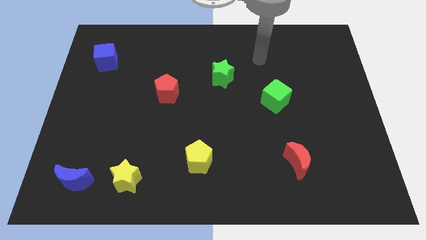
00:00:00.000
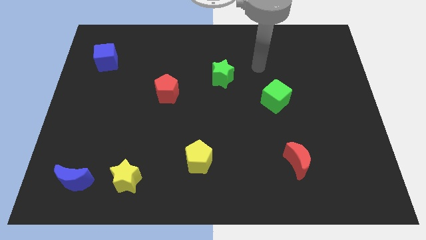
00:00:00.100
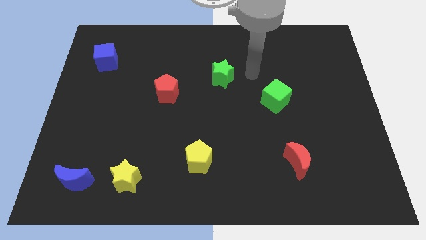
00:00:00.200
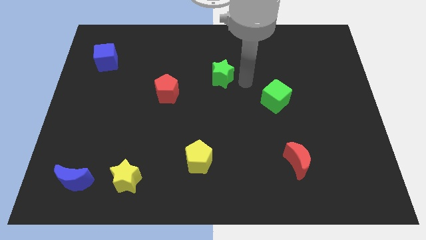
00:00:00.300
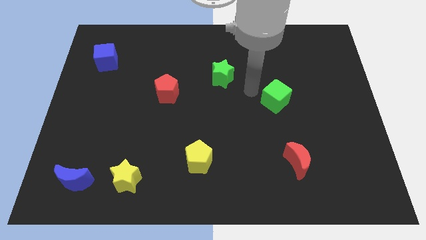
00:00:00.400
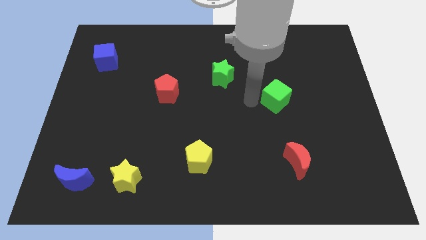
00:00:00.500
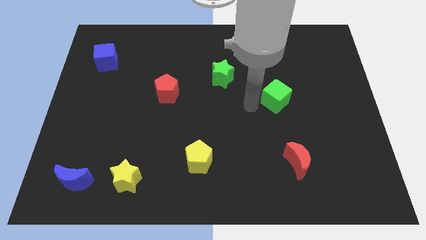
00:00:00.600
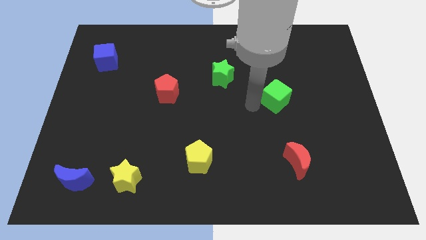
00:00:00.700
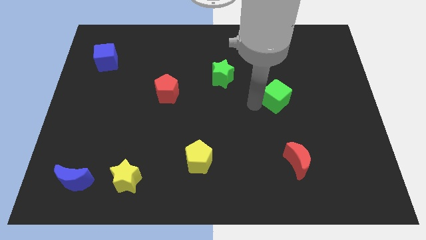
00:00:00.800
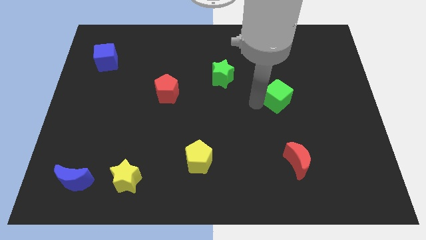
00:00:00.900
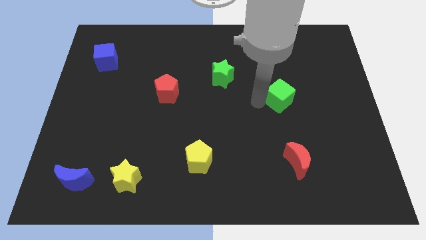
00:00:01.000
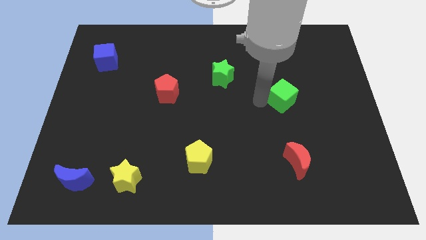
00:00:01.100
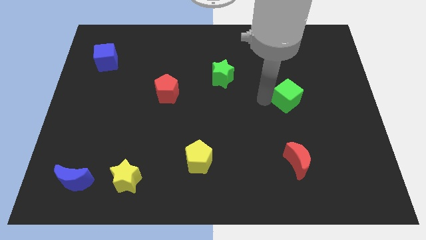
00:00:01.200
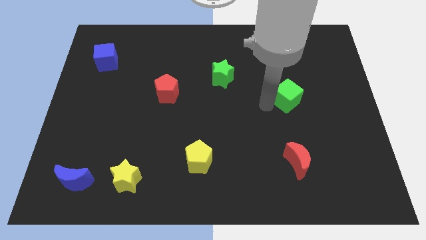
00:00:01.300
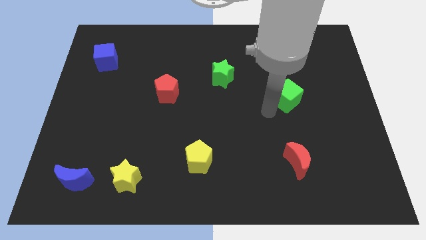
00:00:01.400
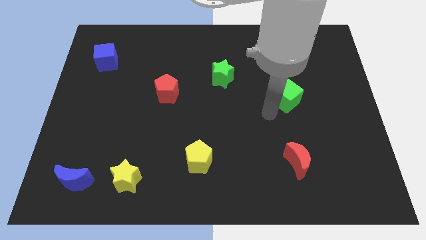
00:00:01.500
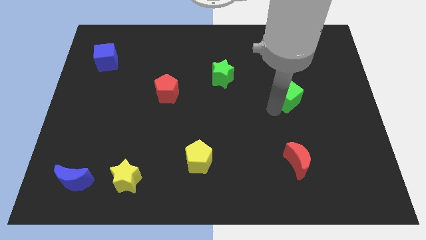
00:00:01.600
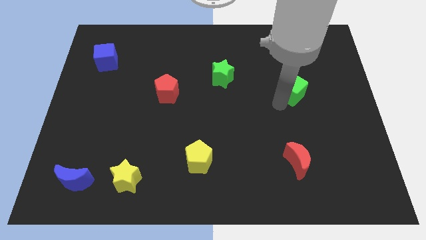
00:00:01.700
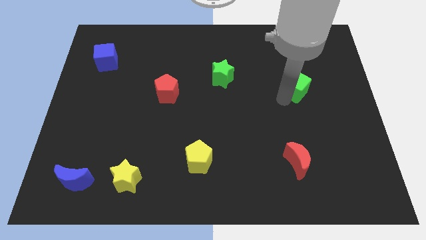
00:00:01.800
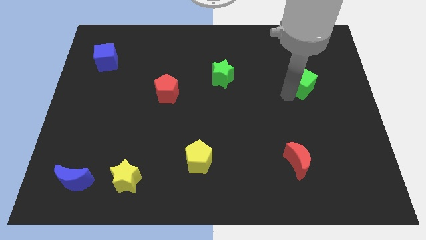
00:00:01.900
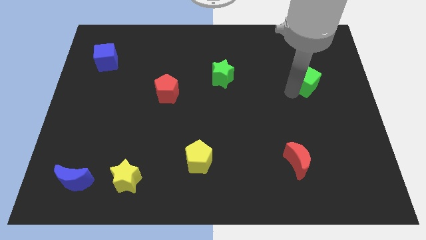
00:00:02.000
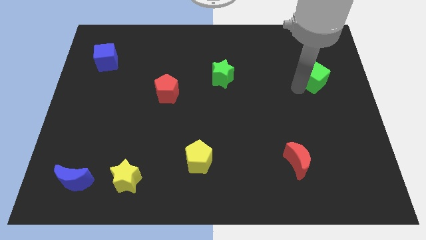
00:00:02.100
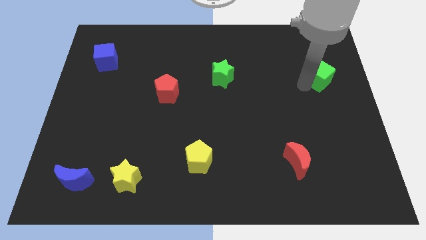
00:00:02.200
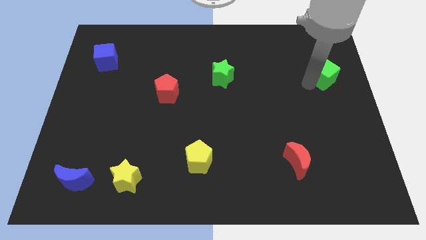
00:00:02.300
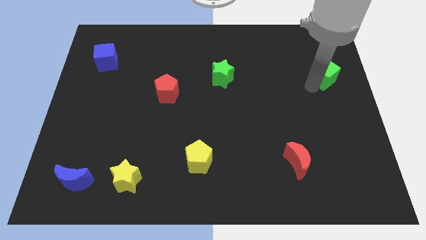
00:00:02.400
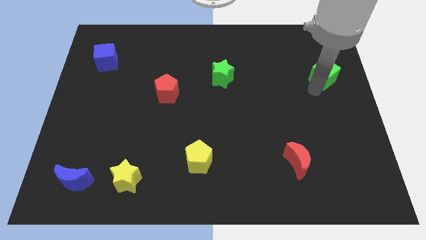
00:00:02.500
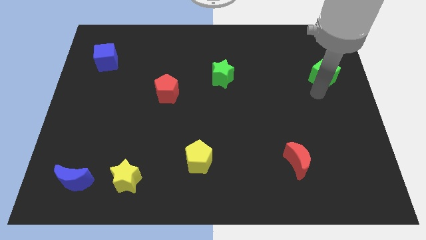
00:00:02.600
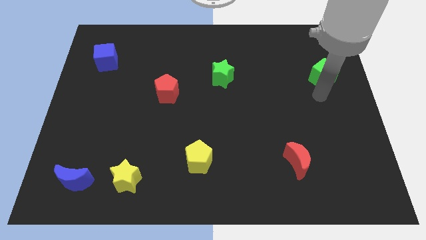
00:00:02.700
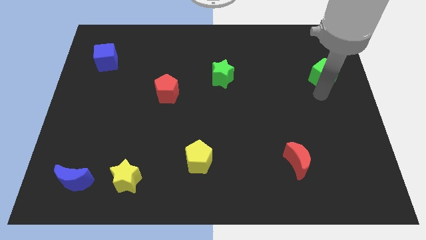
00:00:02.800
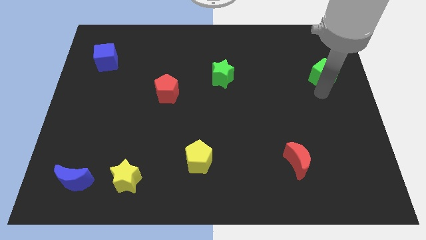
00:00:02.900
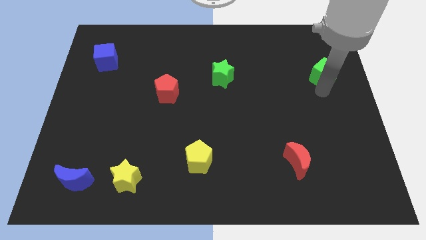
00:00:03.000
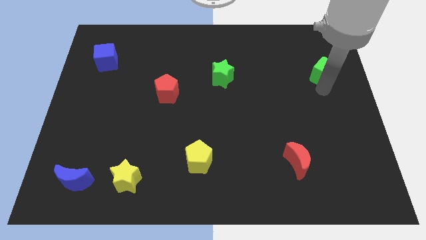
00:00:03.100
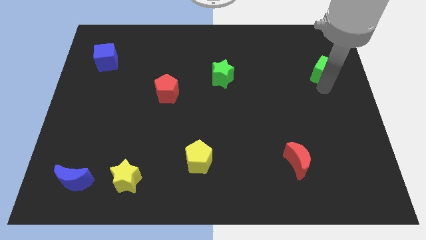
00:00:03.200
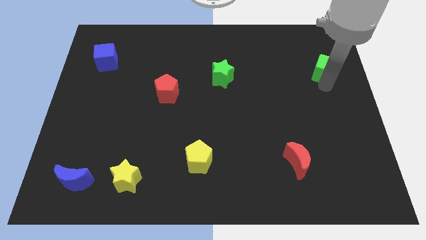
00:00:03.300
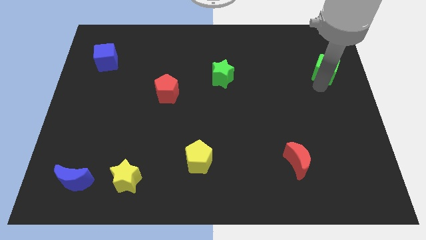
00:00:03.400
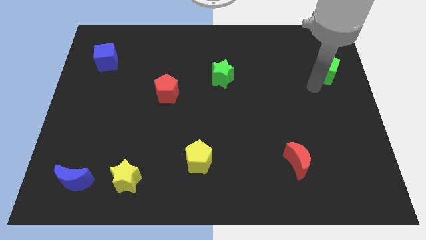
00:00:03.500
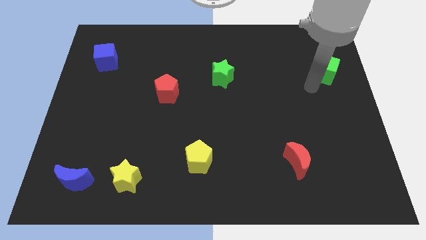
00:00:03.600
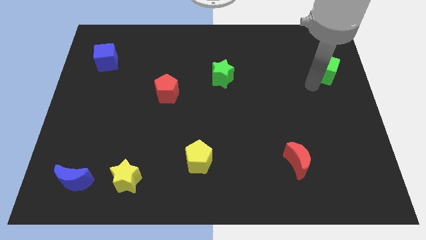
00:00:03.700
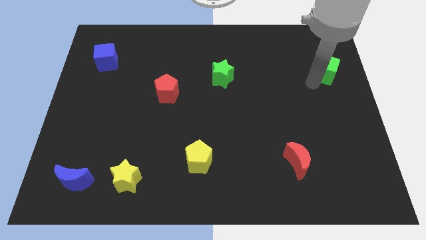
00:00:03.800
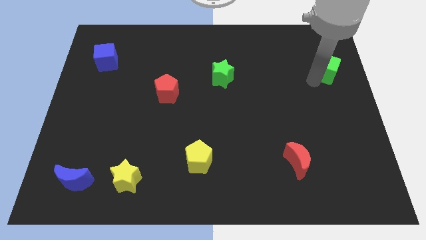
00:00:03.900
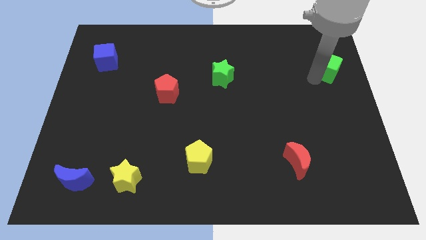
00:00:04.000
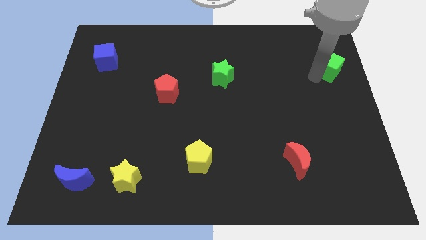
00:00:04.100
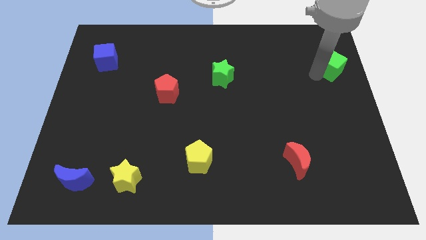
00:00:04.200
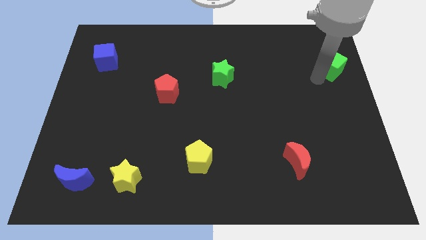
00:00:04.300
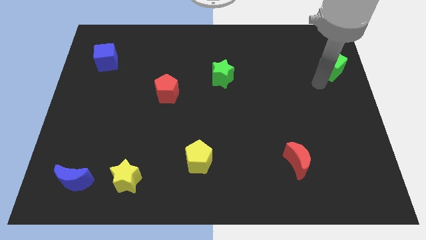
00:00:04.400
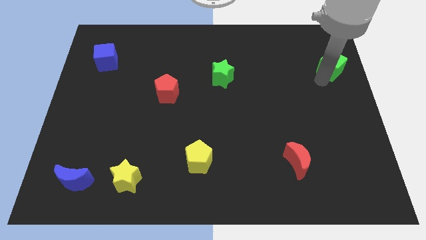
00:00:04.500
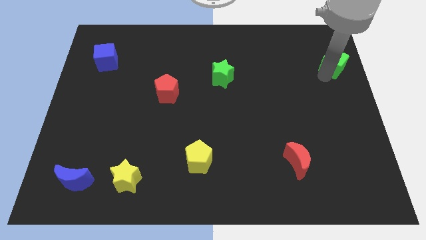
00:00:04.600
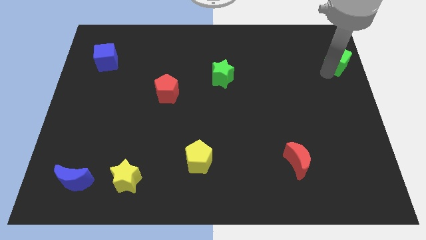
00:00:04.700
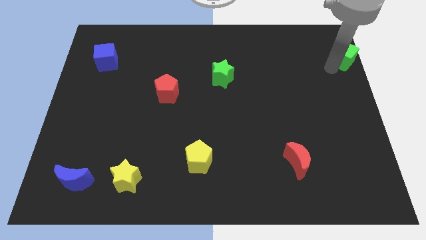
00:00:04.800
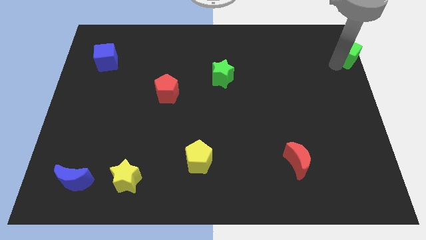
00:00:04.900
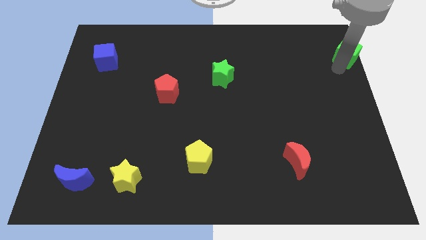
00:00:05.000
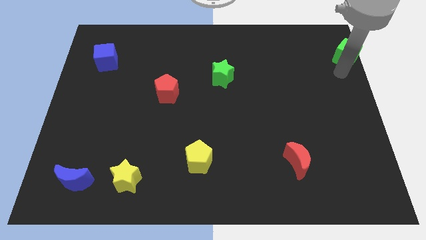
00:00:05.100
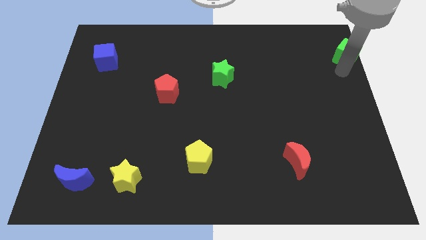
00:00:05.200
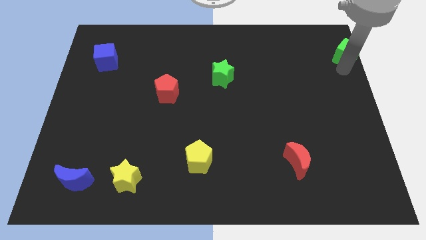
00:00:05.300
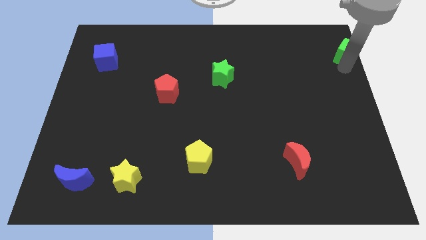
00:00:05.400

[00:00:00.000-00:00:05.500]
slide the green cube to the top right of the board

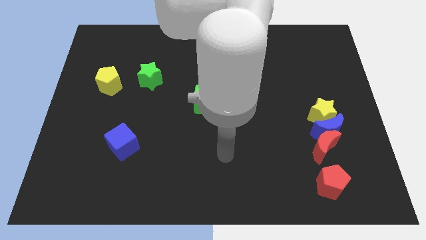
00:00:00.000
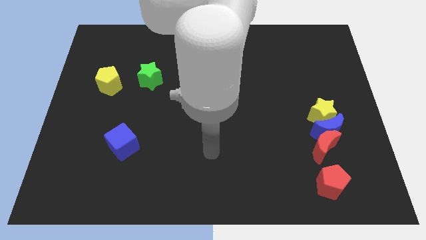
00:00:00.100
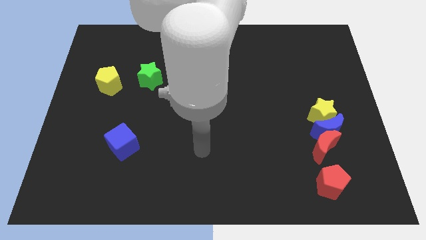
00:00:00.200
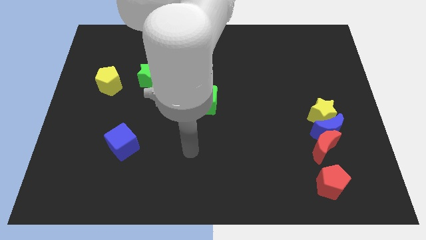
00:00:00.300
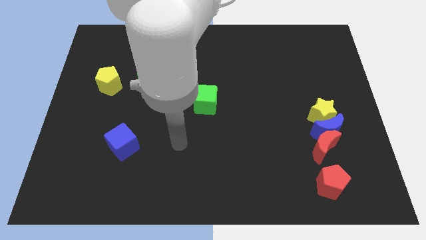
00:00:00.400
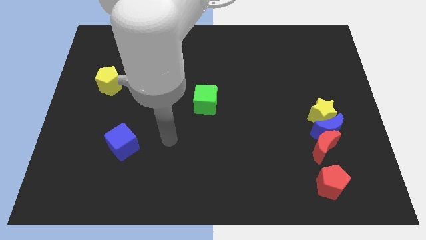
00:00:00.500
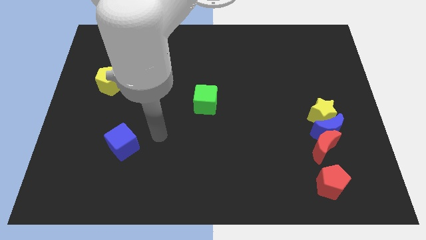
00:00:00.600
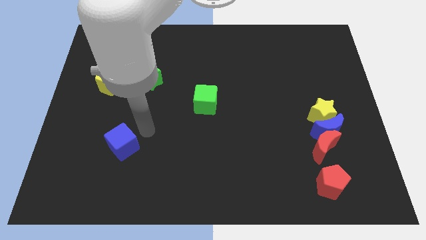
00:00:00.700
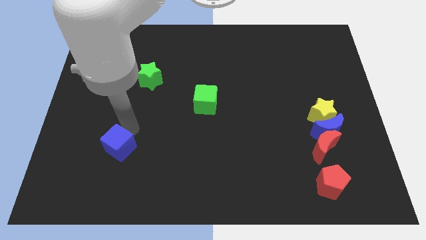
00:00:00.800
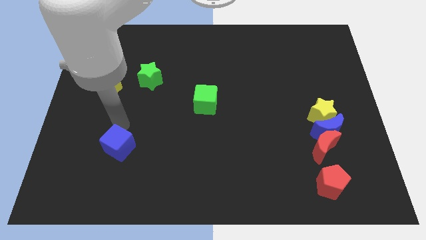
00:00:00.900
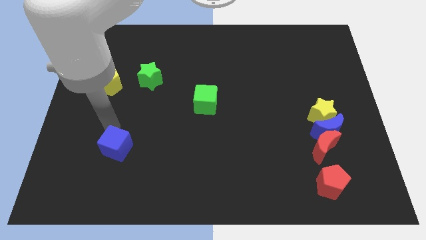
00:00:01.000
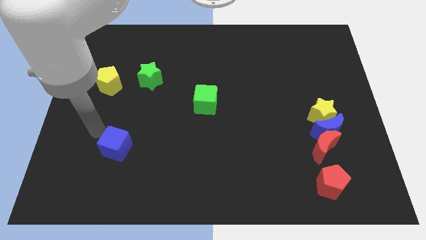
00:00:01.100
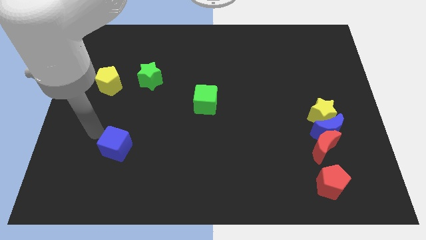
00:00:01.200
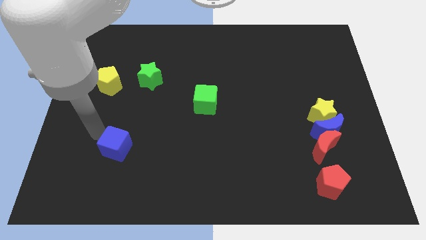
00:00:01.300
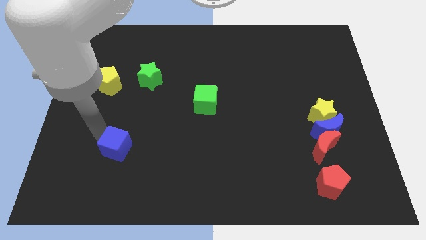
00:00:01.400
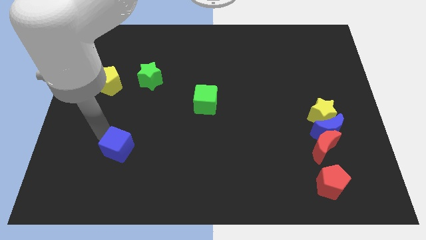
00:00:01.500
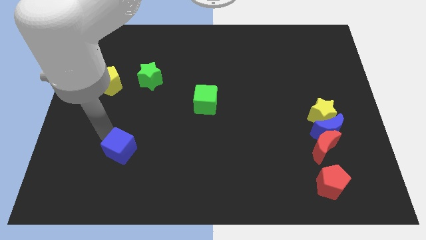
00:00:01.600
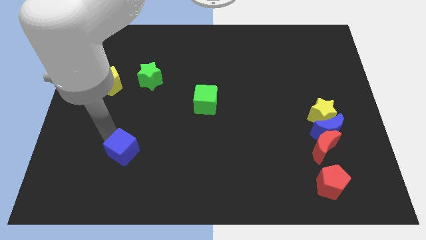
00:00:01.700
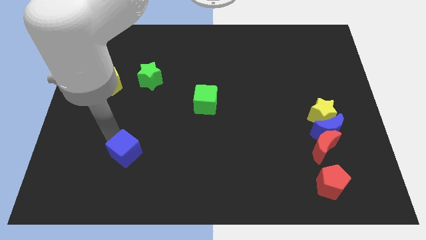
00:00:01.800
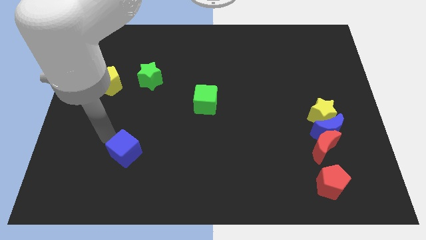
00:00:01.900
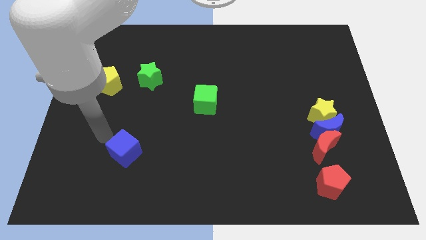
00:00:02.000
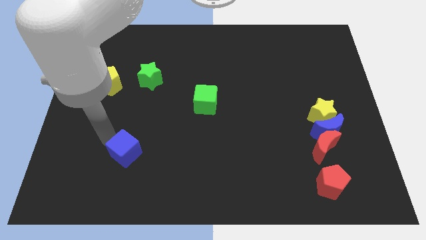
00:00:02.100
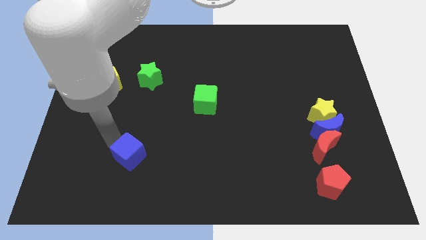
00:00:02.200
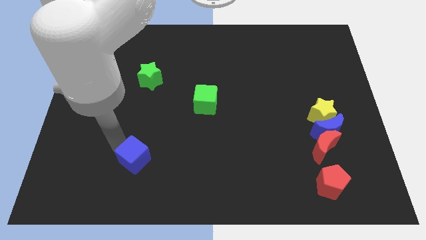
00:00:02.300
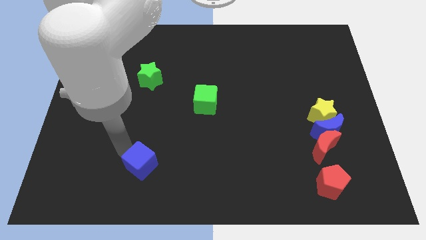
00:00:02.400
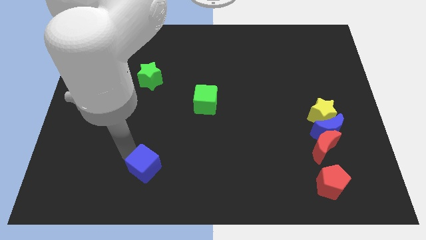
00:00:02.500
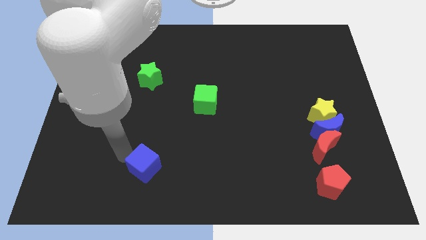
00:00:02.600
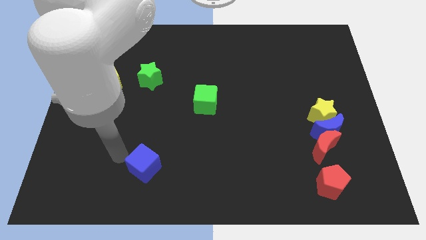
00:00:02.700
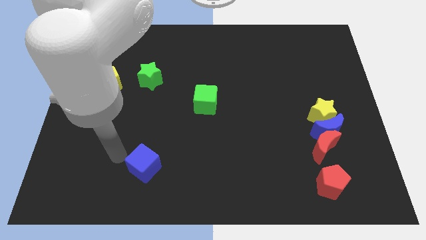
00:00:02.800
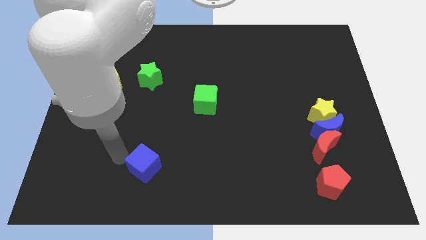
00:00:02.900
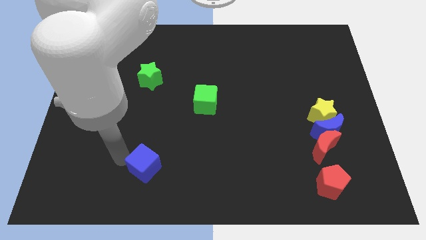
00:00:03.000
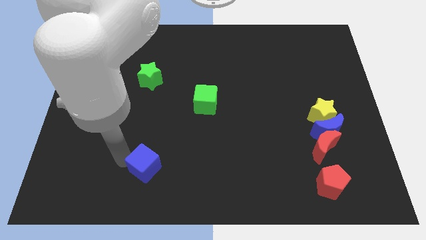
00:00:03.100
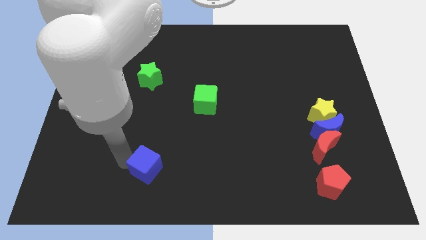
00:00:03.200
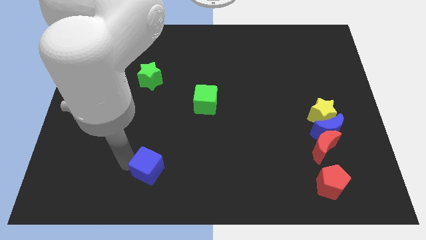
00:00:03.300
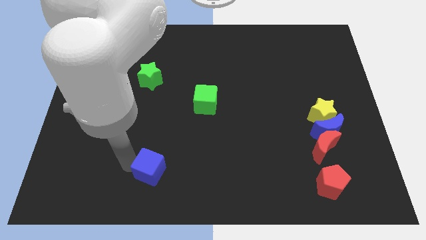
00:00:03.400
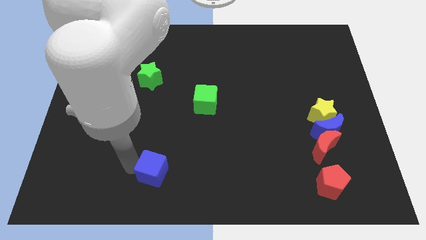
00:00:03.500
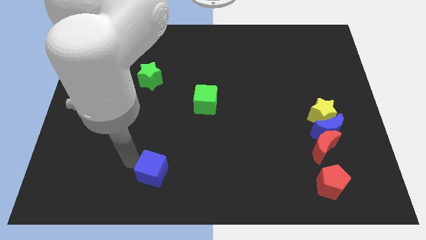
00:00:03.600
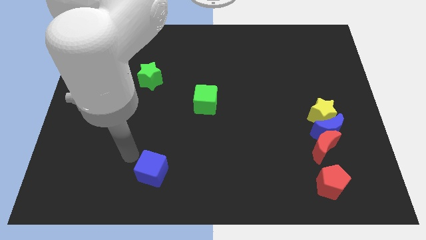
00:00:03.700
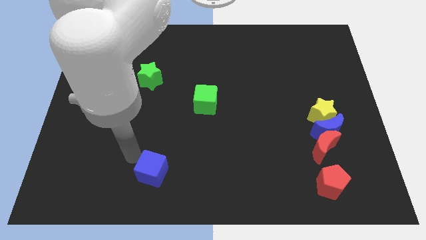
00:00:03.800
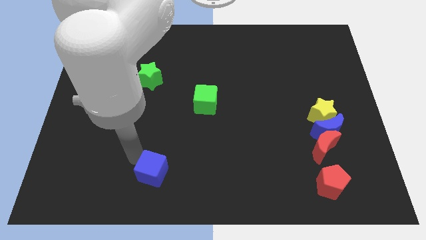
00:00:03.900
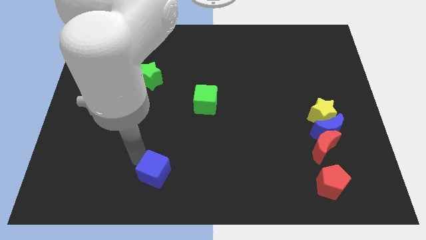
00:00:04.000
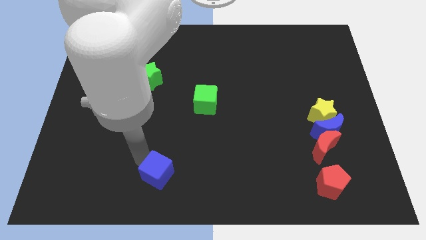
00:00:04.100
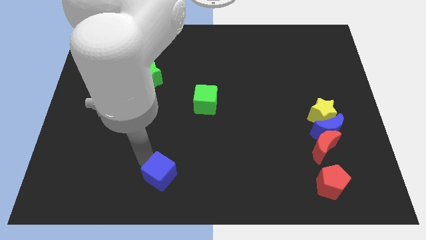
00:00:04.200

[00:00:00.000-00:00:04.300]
put the blue cube to the bottom side
